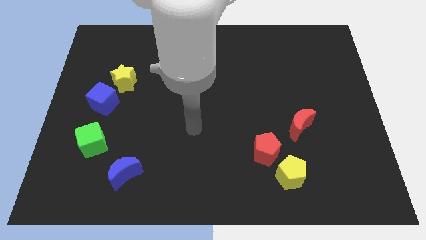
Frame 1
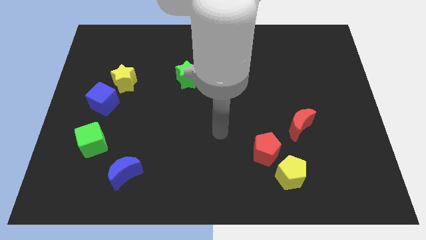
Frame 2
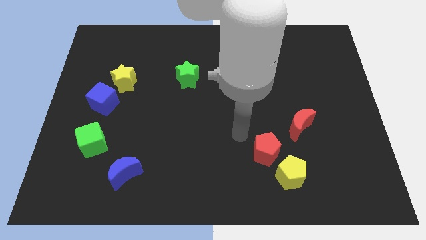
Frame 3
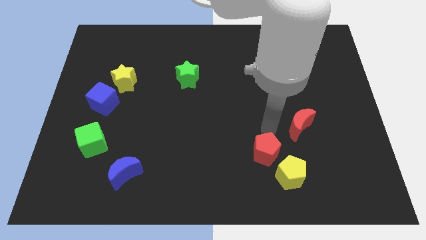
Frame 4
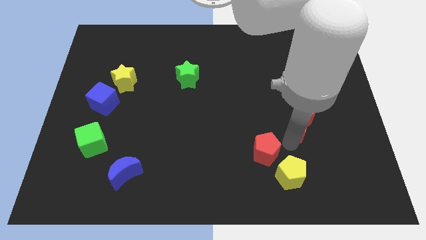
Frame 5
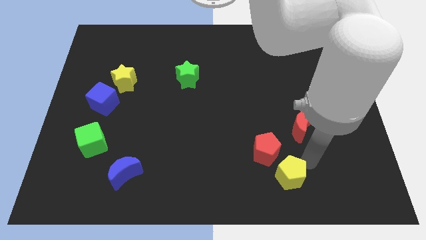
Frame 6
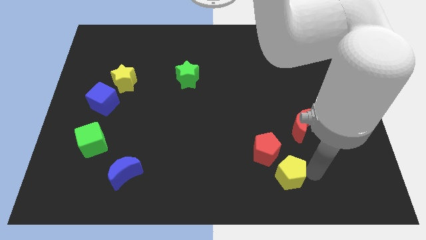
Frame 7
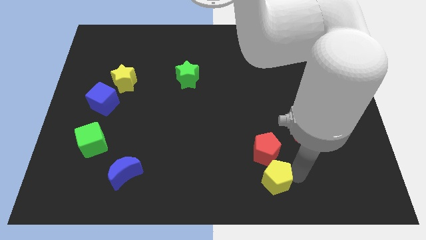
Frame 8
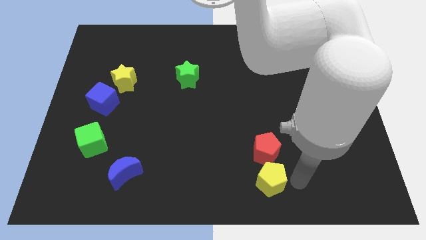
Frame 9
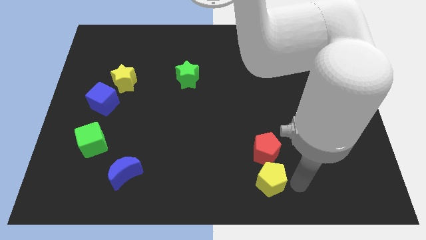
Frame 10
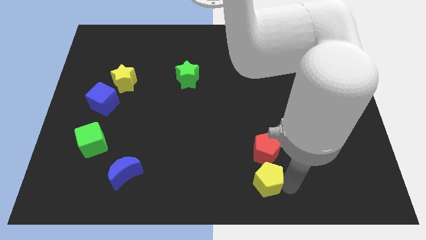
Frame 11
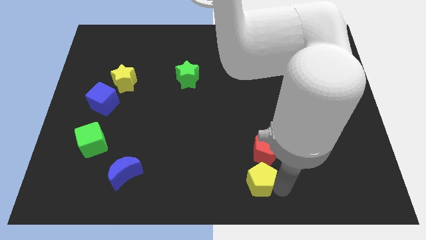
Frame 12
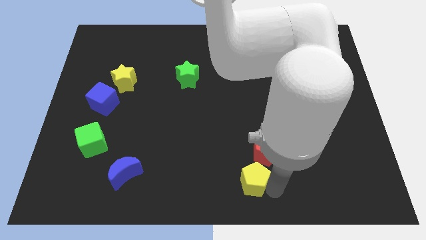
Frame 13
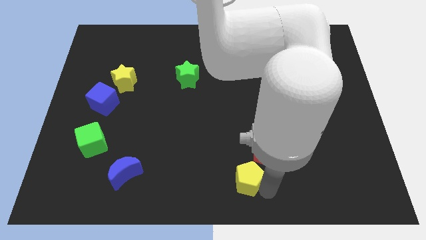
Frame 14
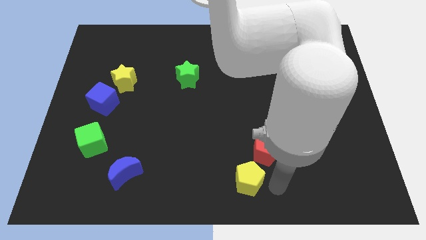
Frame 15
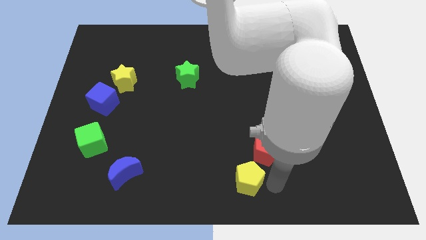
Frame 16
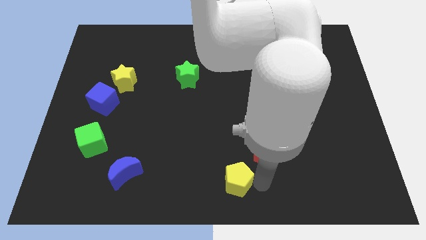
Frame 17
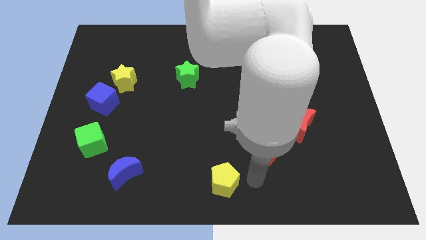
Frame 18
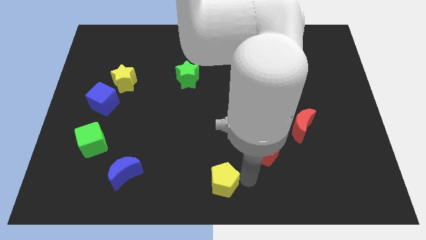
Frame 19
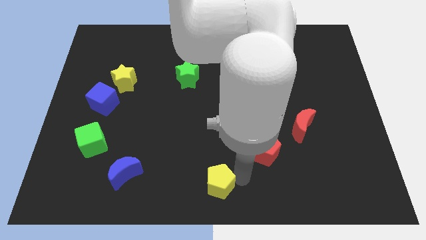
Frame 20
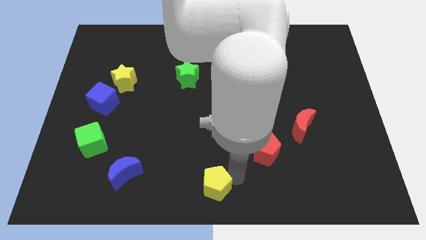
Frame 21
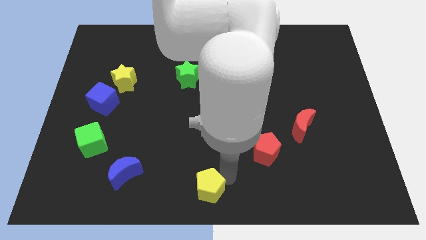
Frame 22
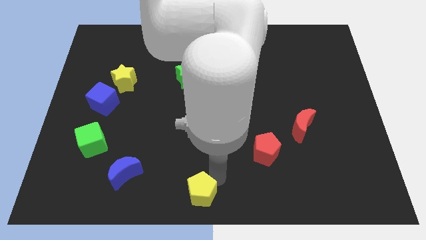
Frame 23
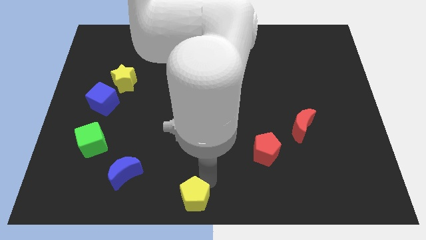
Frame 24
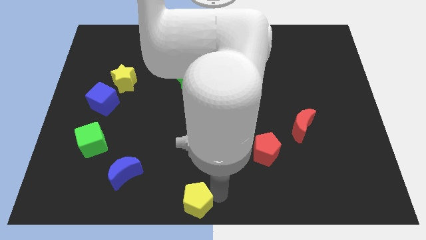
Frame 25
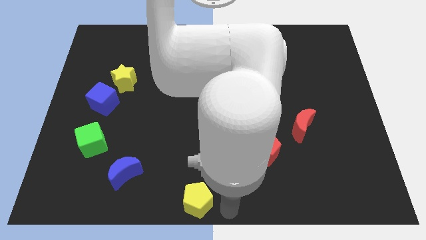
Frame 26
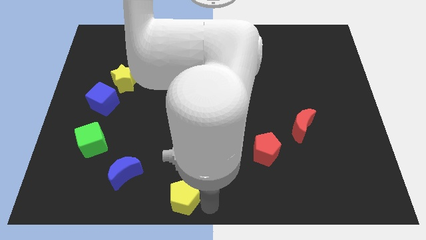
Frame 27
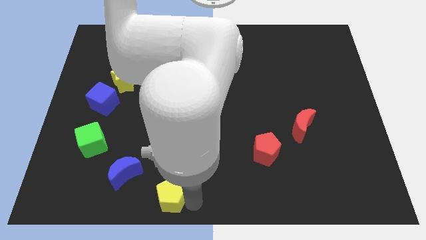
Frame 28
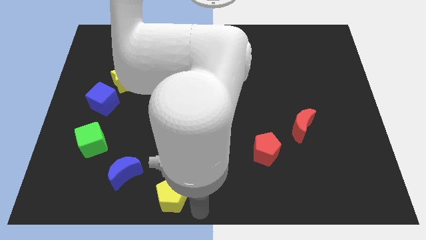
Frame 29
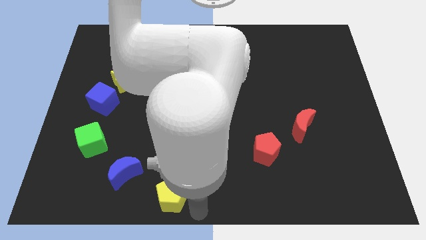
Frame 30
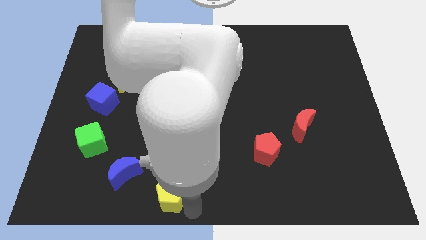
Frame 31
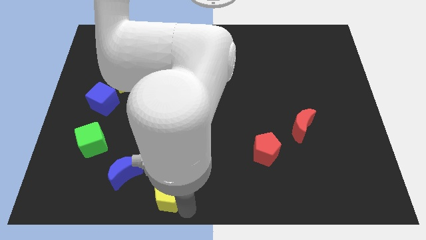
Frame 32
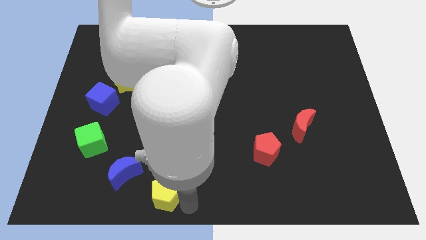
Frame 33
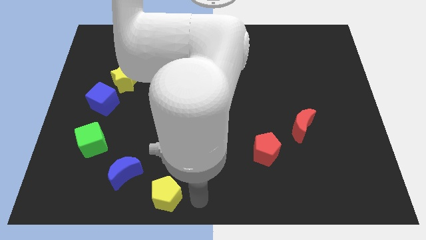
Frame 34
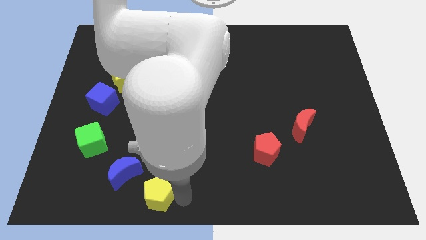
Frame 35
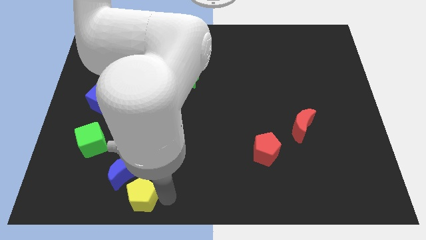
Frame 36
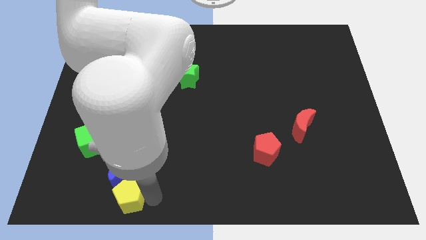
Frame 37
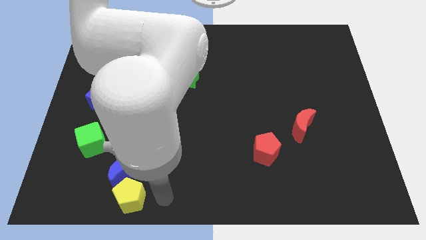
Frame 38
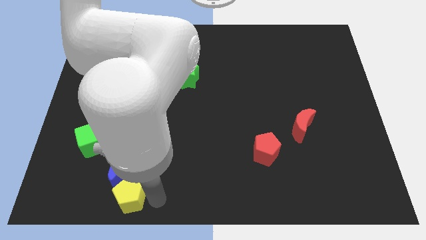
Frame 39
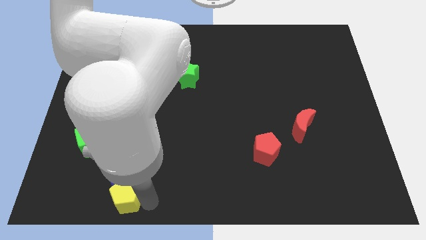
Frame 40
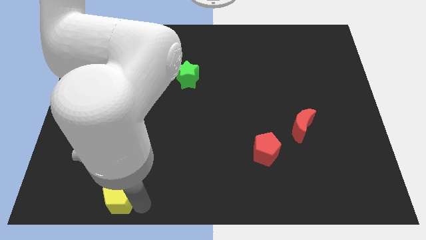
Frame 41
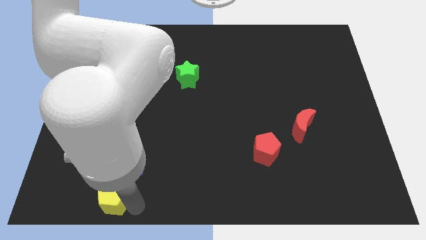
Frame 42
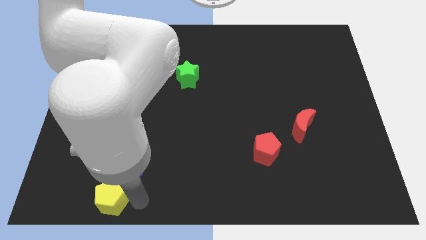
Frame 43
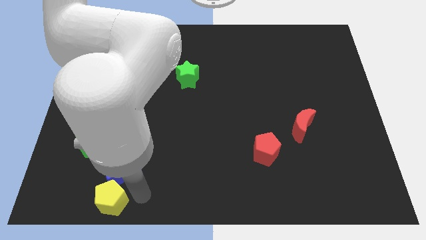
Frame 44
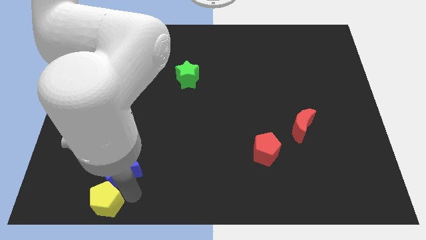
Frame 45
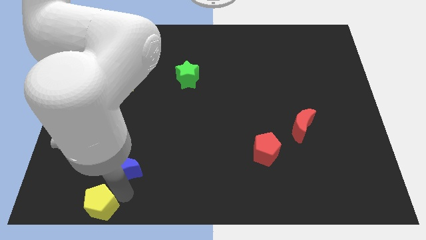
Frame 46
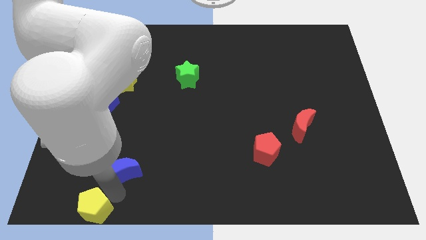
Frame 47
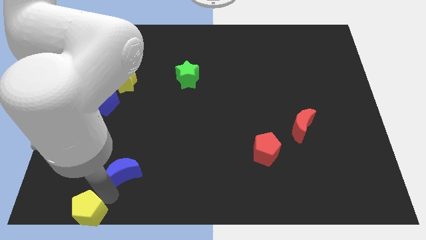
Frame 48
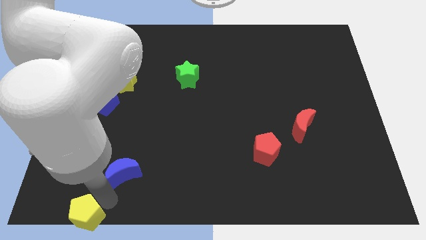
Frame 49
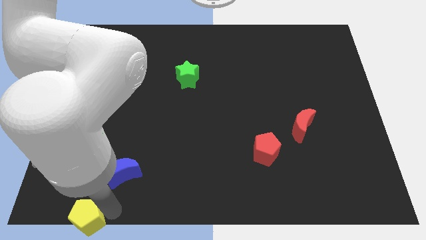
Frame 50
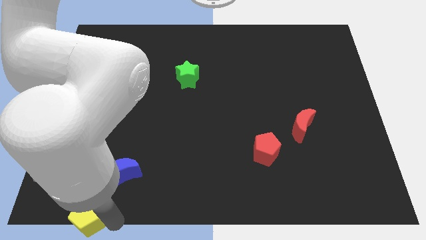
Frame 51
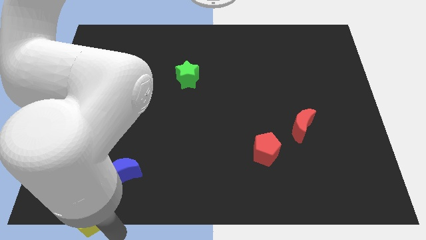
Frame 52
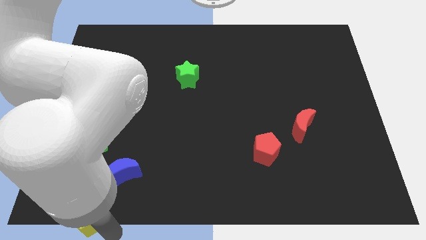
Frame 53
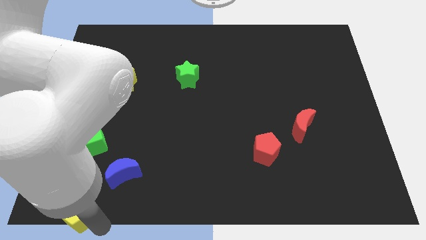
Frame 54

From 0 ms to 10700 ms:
move the yellow pentagon to the bottom left
